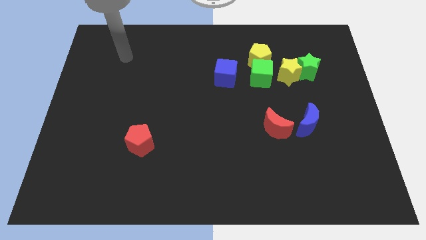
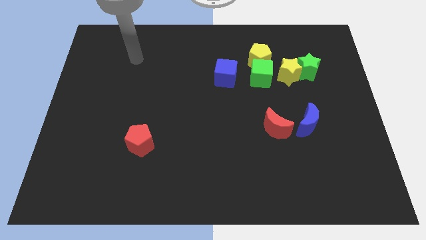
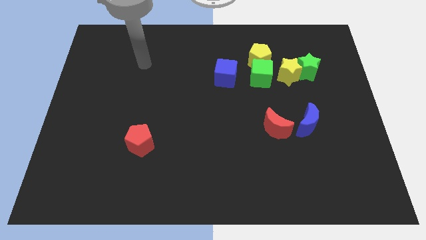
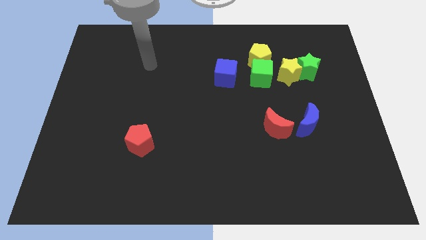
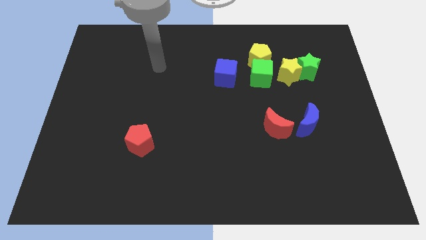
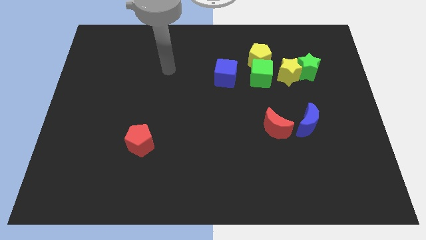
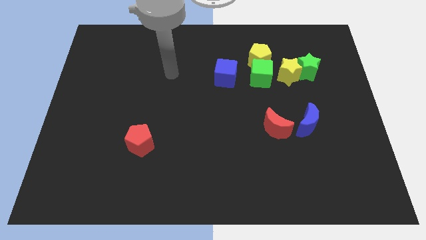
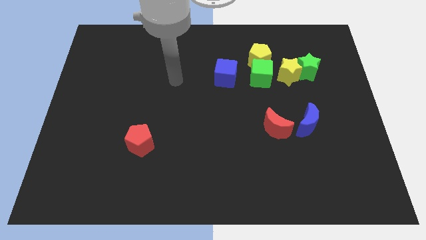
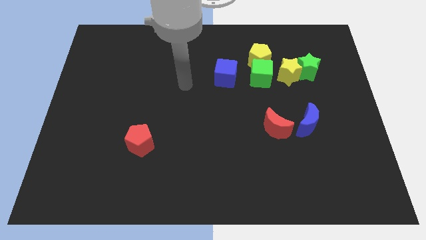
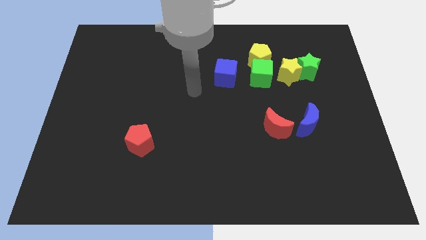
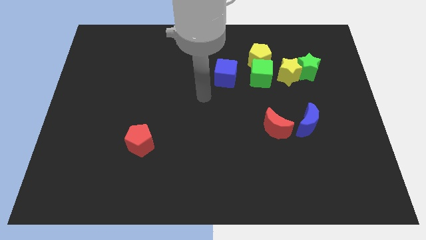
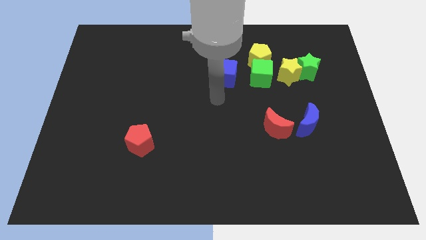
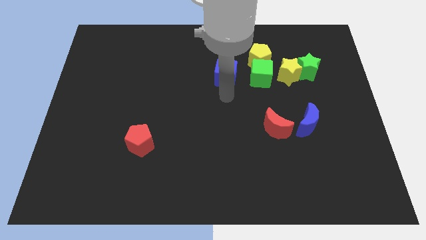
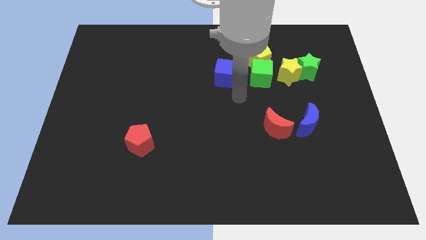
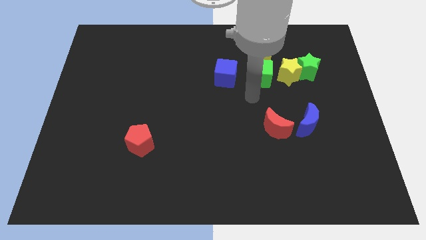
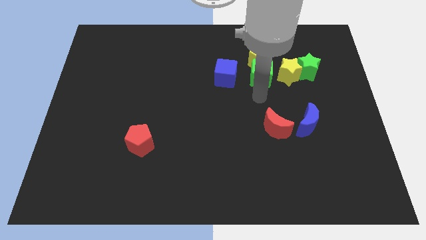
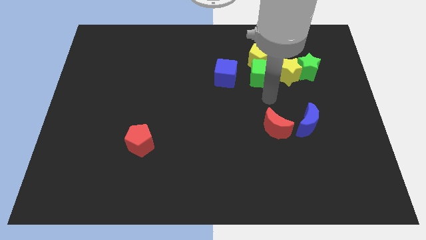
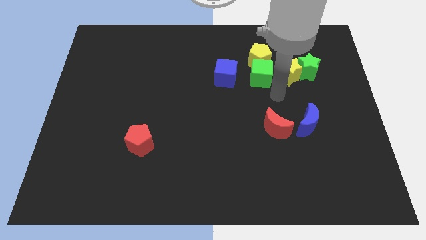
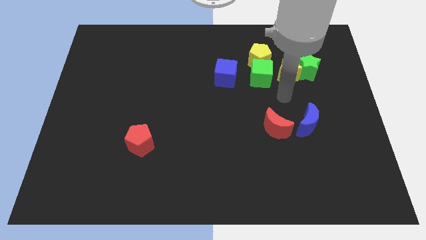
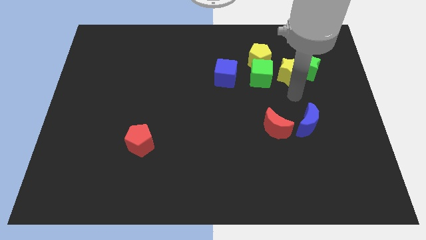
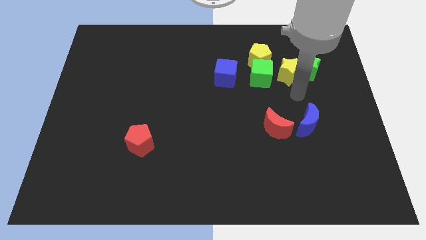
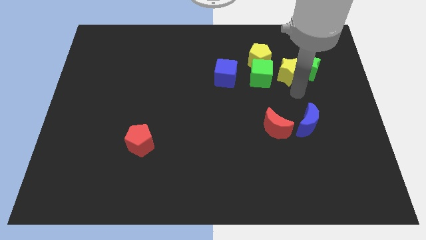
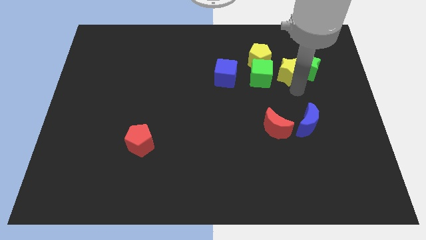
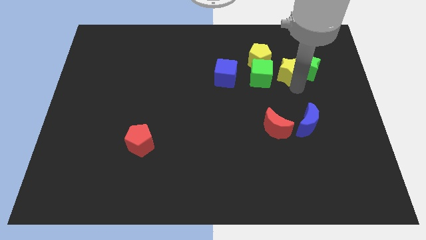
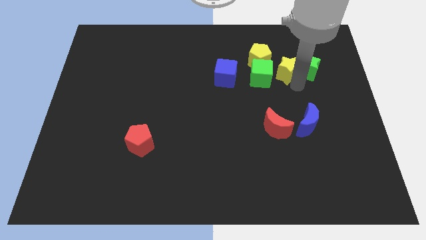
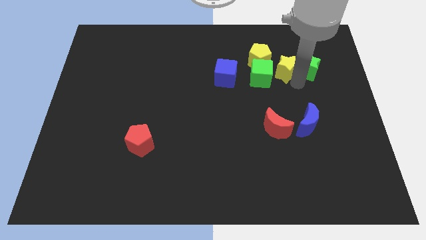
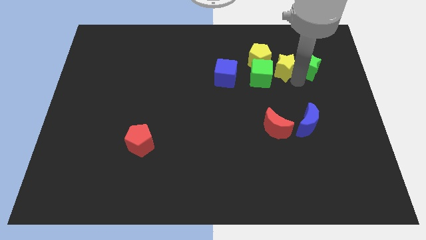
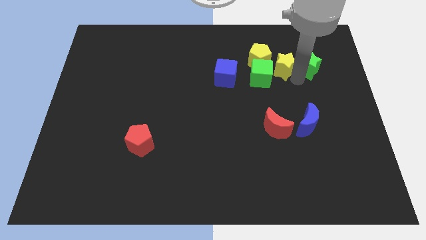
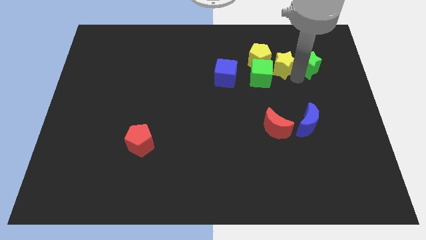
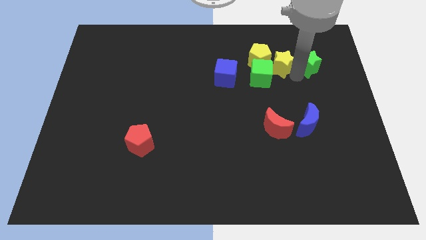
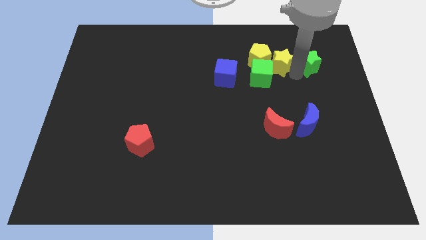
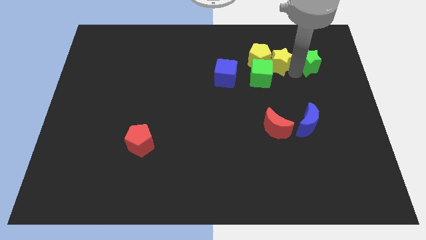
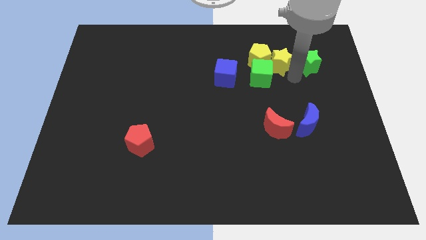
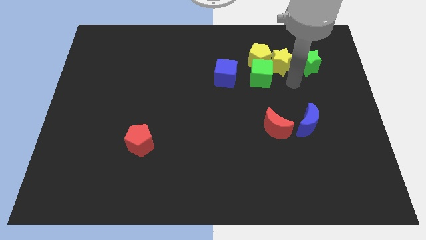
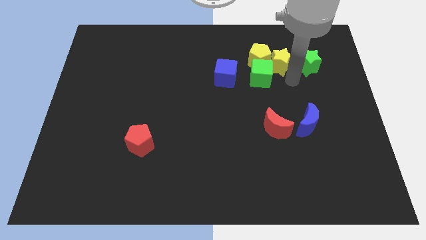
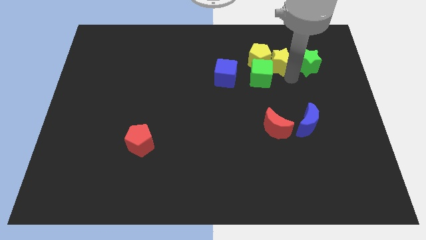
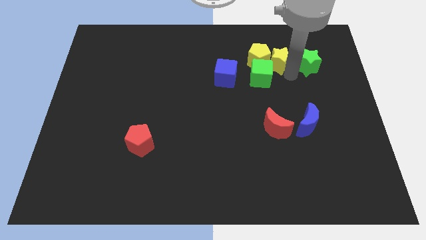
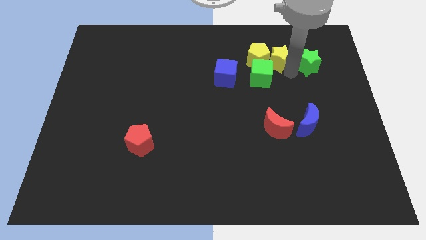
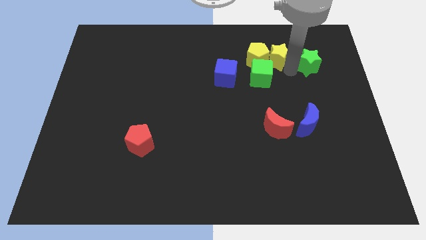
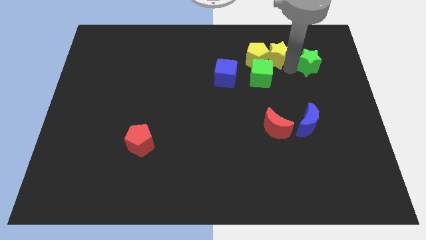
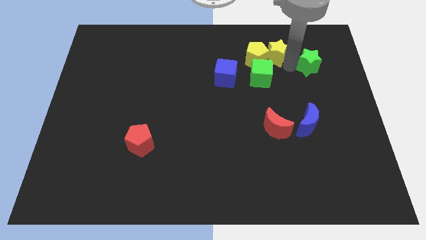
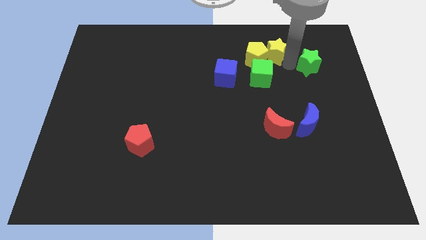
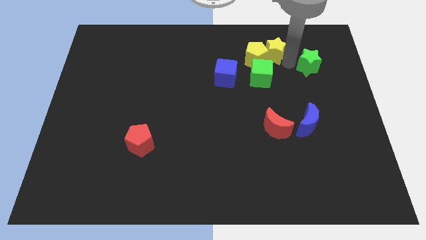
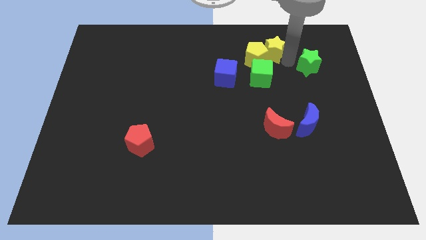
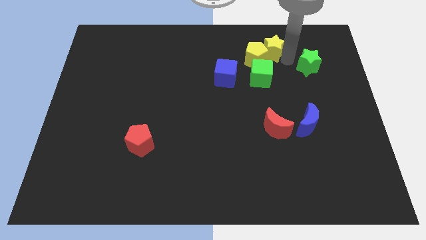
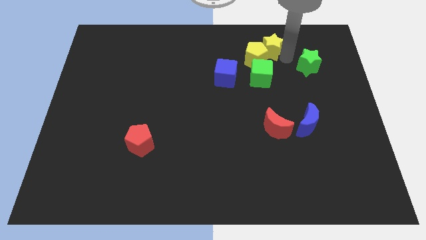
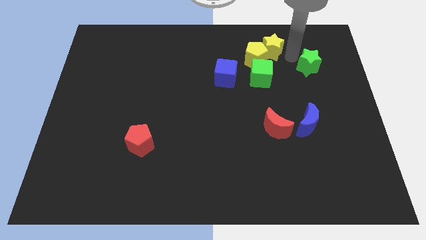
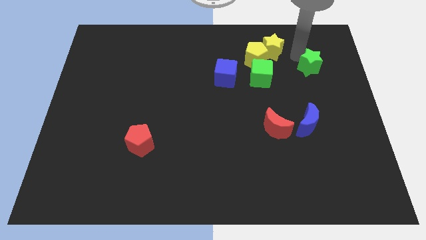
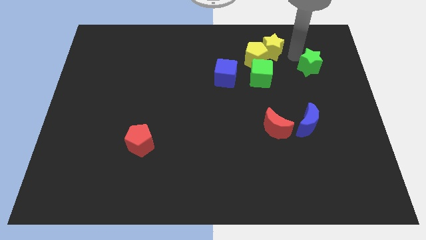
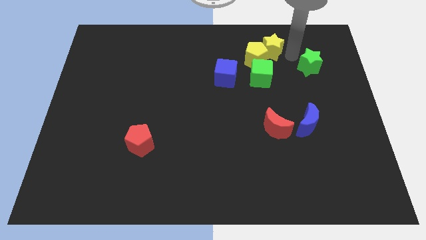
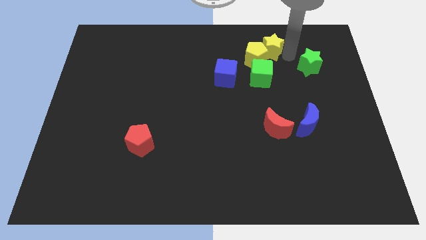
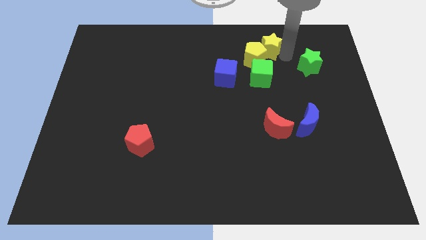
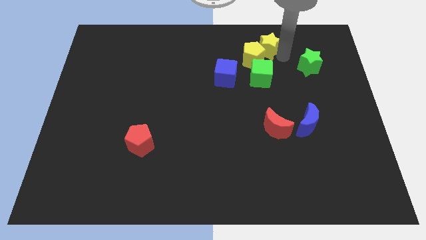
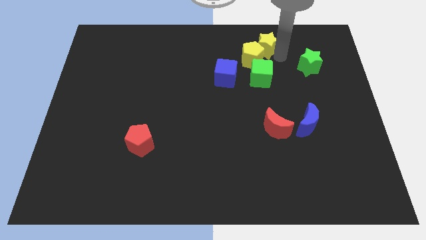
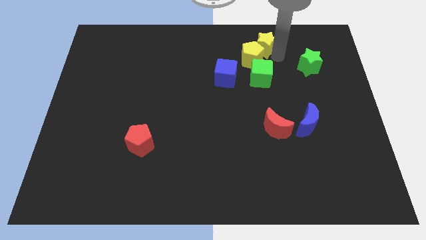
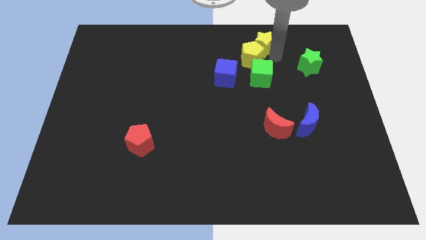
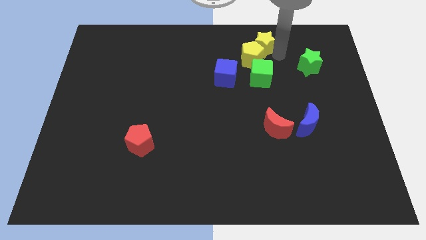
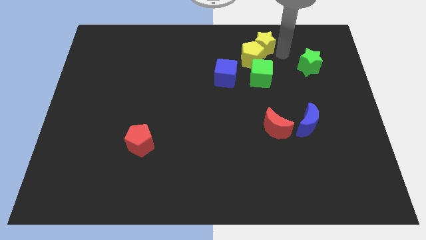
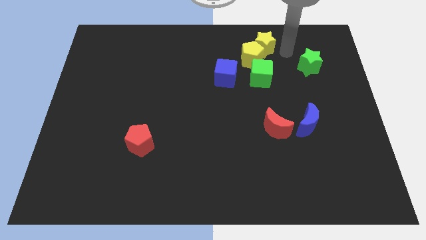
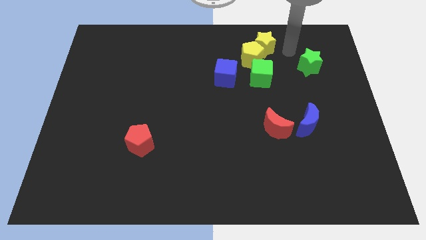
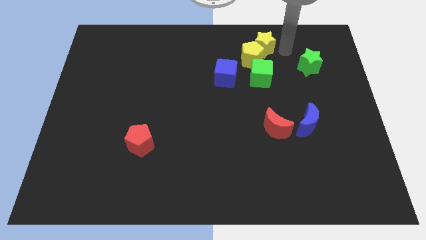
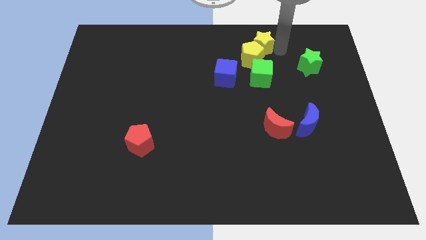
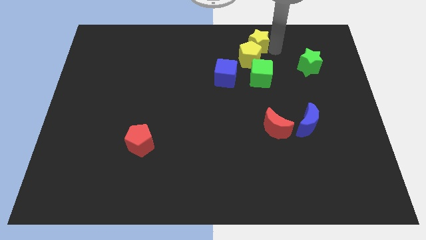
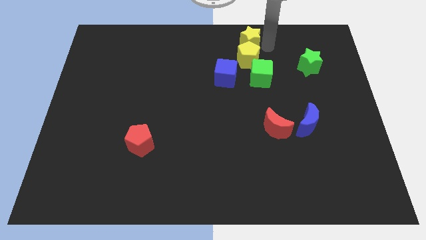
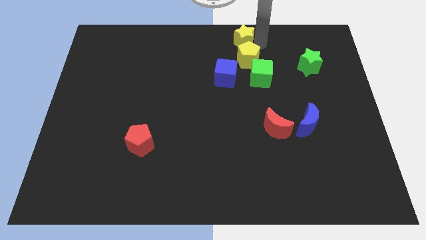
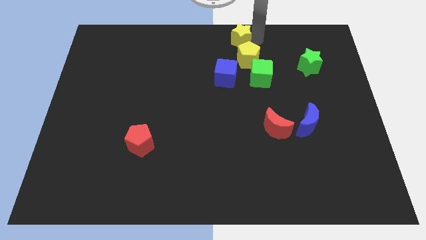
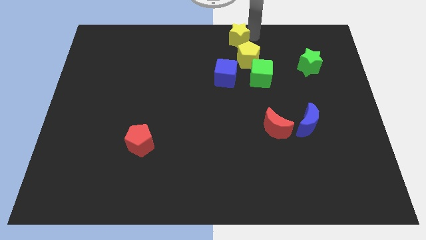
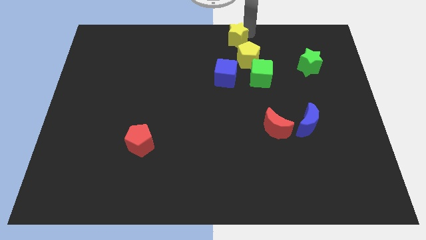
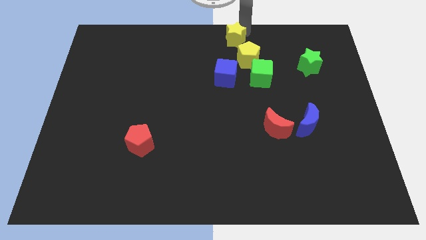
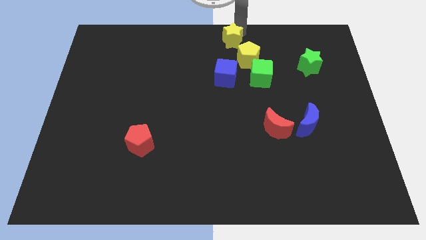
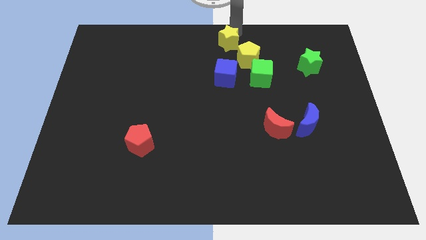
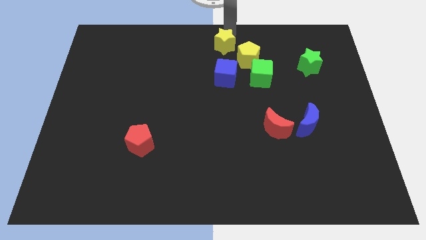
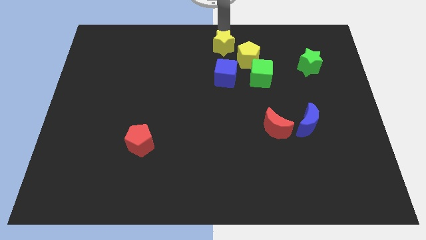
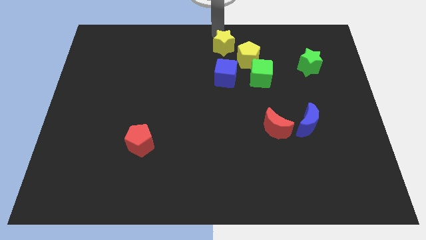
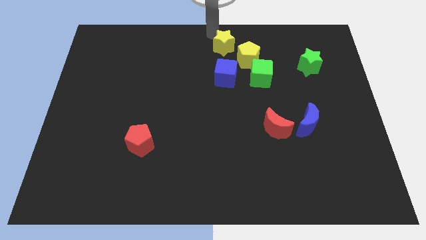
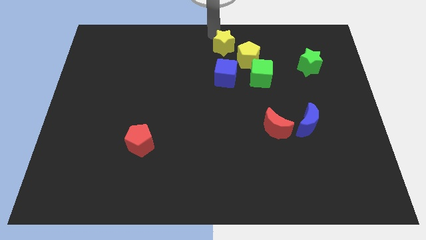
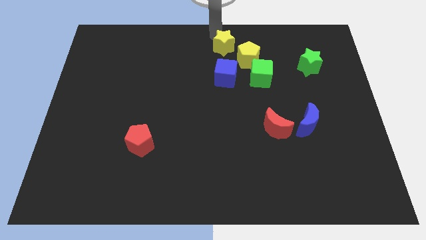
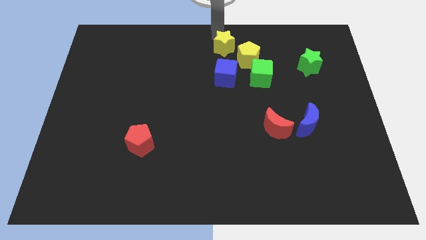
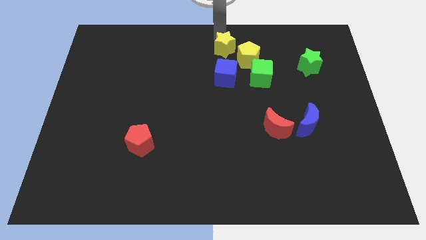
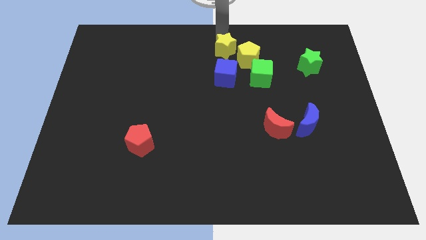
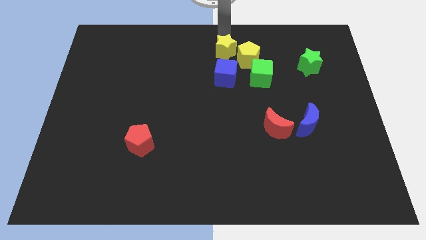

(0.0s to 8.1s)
move the yellow star to the top left side of the green cube
